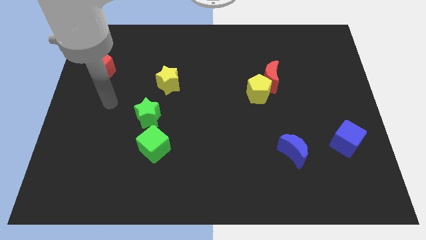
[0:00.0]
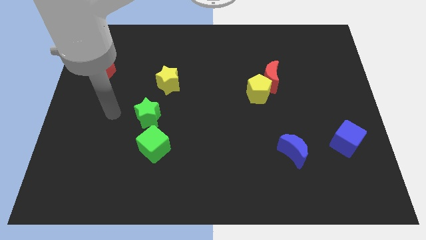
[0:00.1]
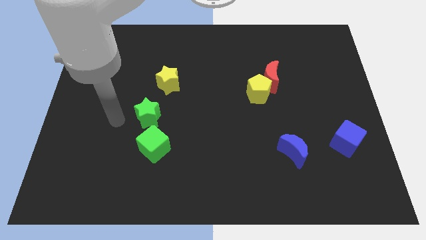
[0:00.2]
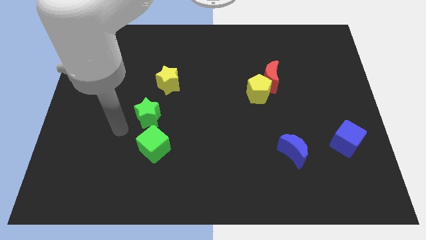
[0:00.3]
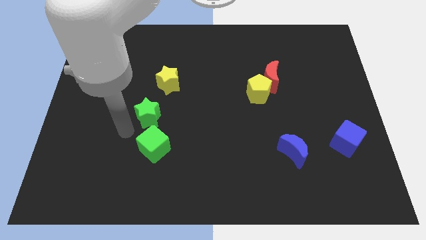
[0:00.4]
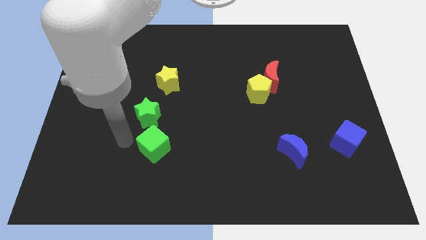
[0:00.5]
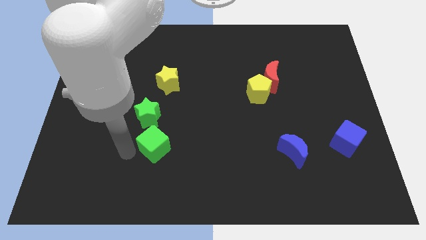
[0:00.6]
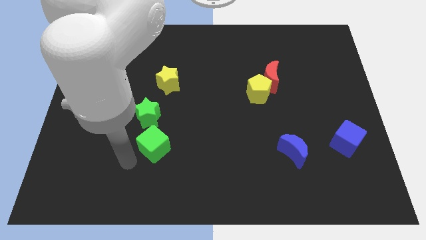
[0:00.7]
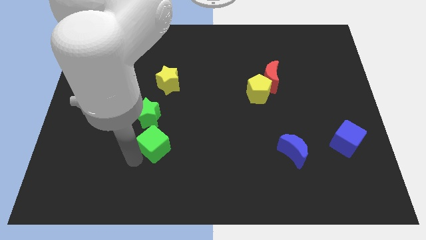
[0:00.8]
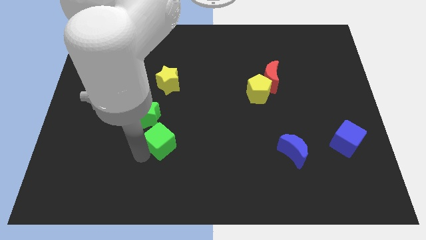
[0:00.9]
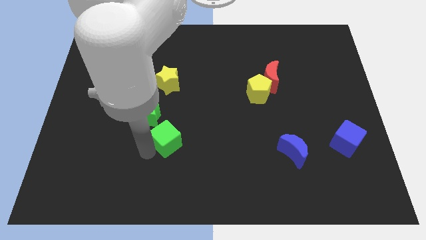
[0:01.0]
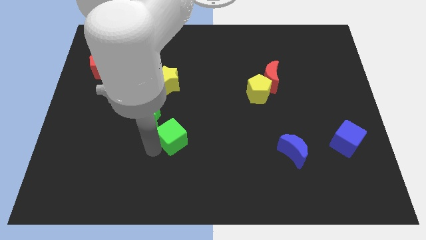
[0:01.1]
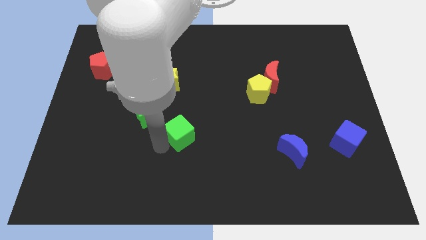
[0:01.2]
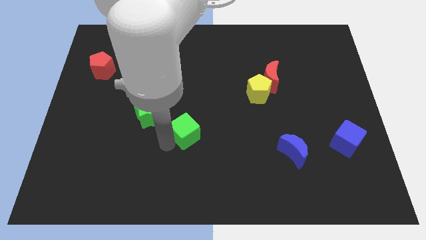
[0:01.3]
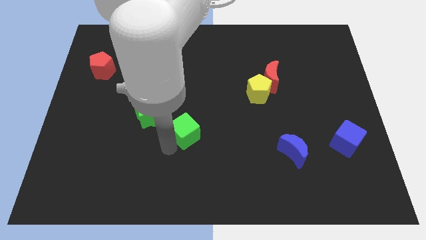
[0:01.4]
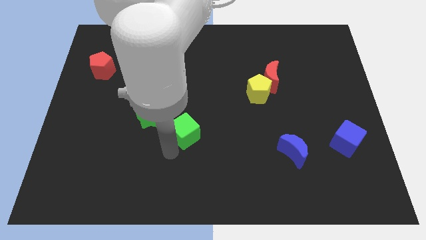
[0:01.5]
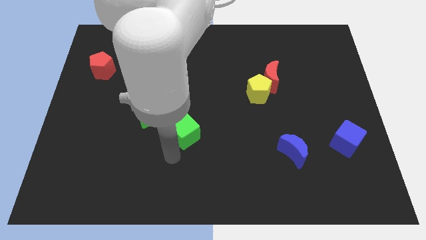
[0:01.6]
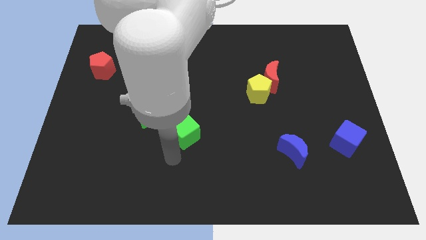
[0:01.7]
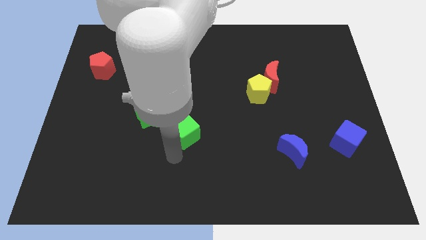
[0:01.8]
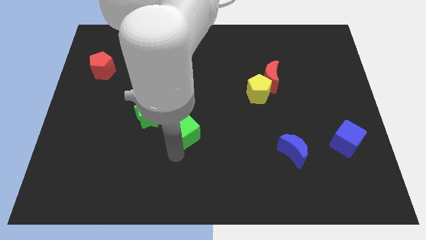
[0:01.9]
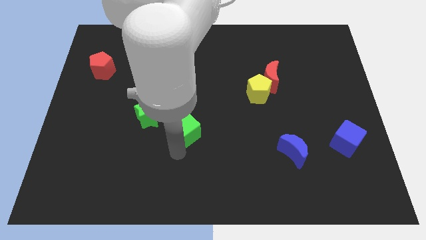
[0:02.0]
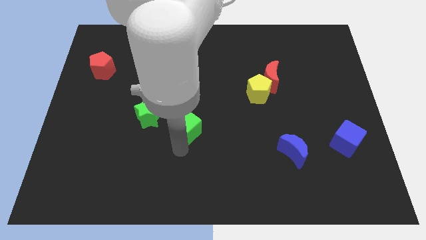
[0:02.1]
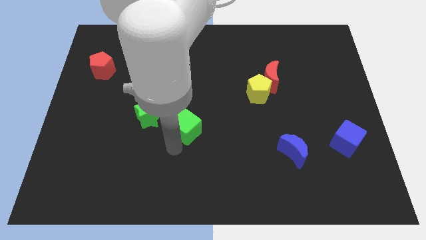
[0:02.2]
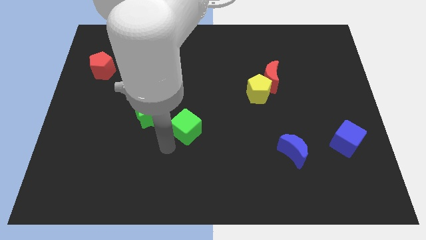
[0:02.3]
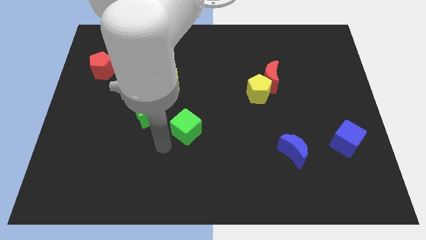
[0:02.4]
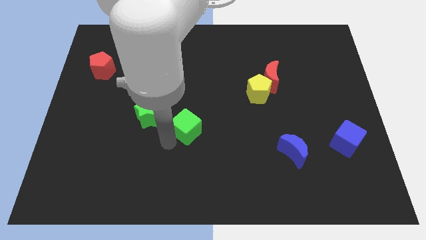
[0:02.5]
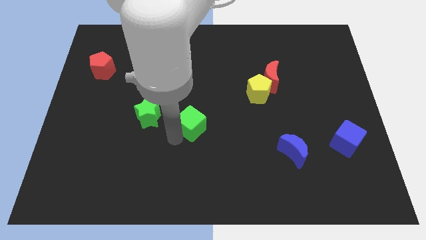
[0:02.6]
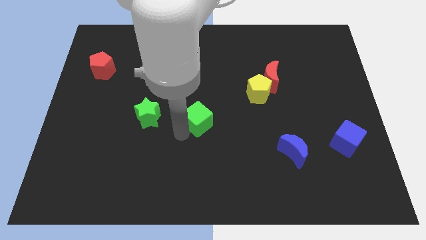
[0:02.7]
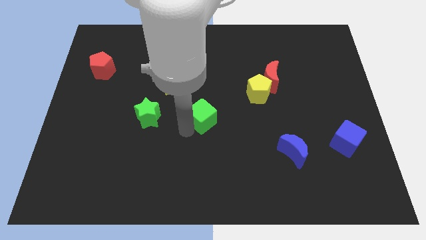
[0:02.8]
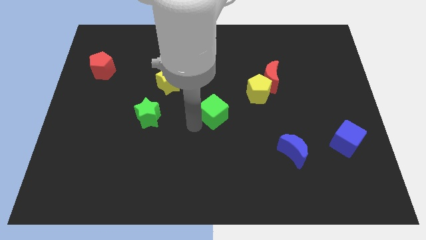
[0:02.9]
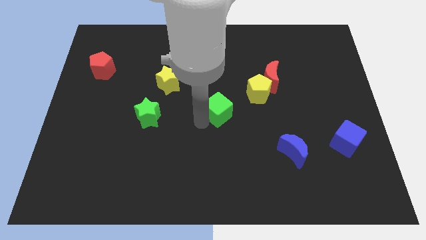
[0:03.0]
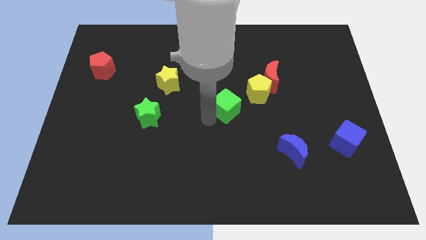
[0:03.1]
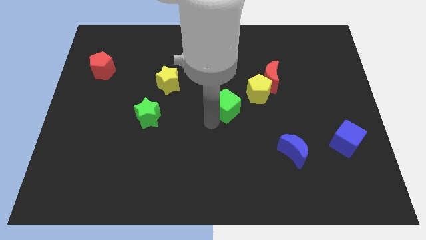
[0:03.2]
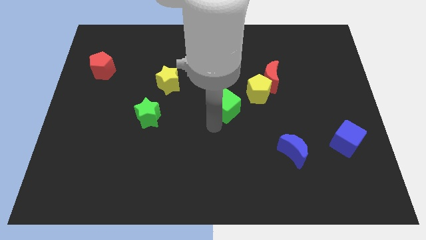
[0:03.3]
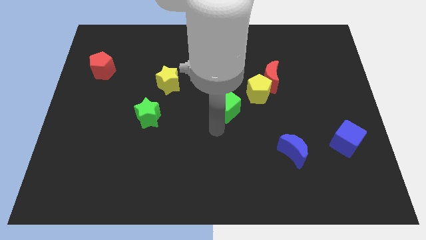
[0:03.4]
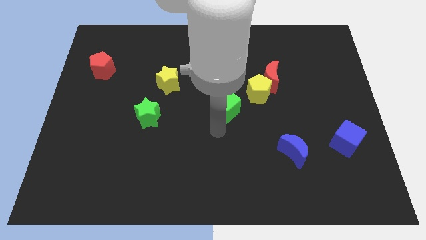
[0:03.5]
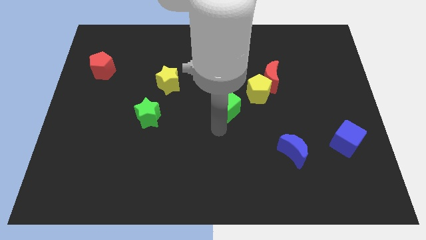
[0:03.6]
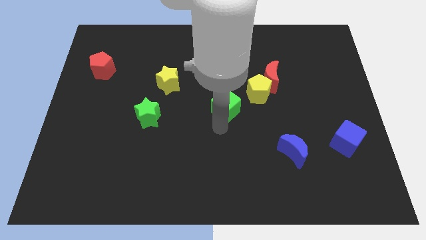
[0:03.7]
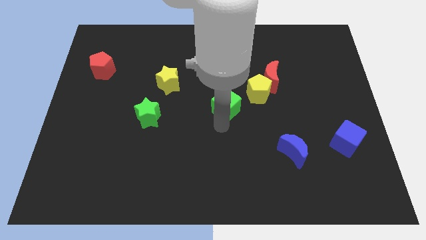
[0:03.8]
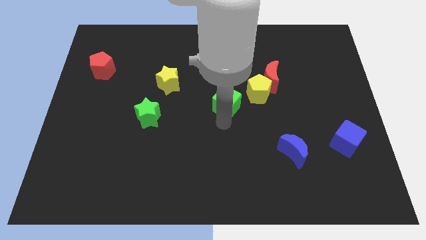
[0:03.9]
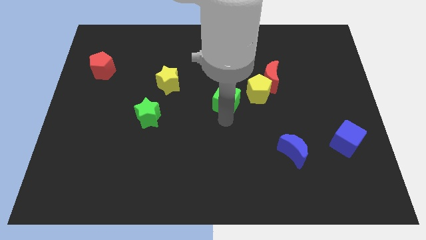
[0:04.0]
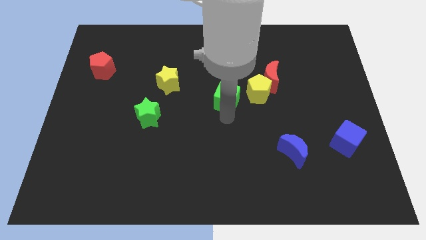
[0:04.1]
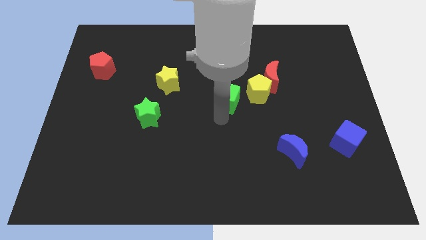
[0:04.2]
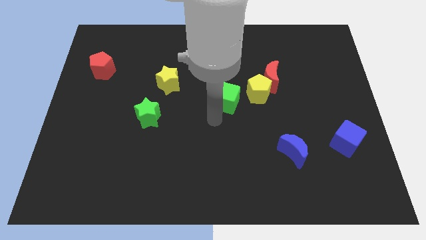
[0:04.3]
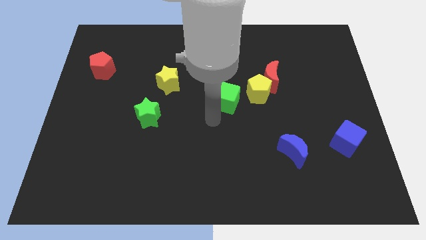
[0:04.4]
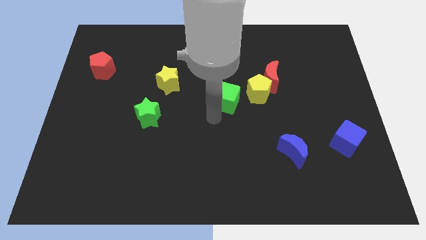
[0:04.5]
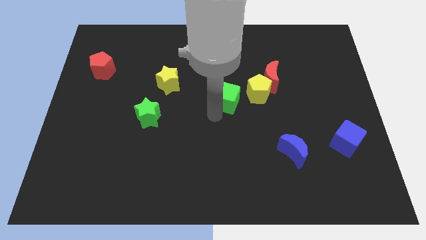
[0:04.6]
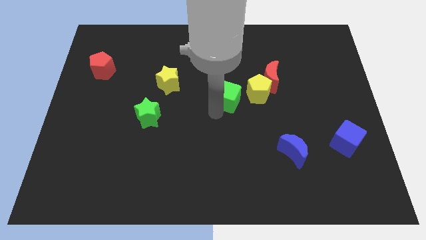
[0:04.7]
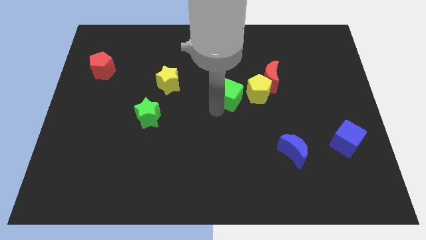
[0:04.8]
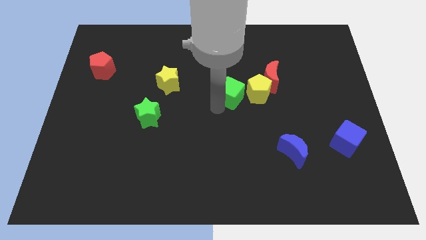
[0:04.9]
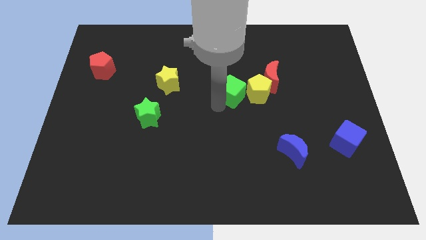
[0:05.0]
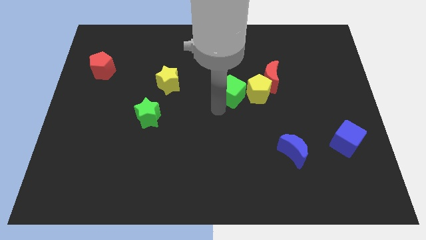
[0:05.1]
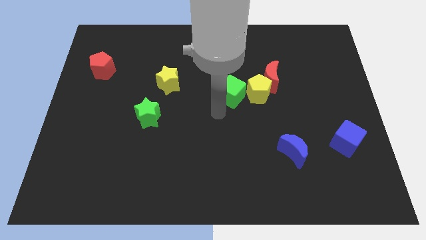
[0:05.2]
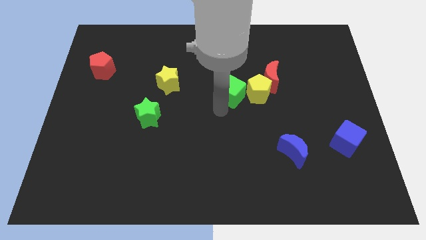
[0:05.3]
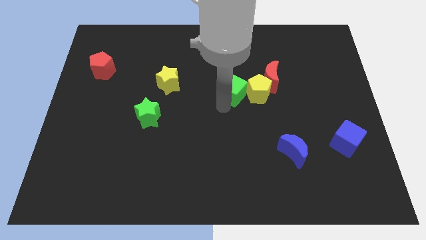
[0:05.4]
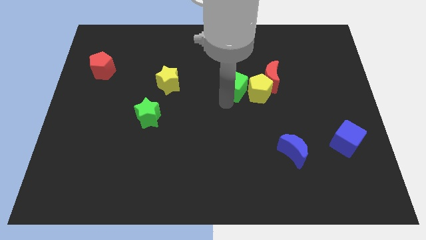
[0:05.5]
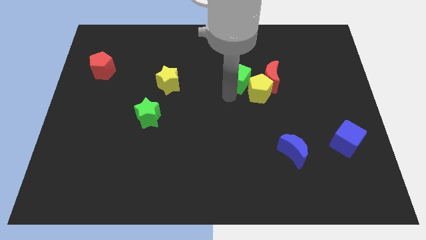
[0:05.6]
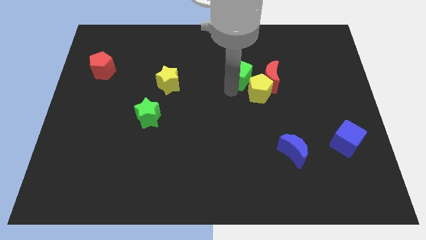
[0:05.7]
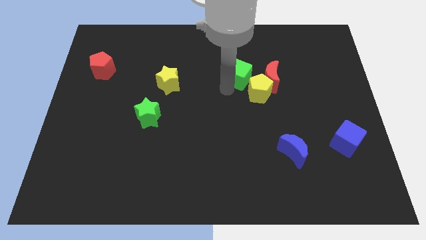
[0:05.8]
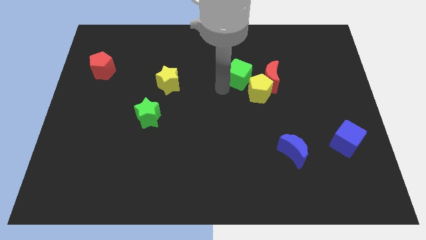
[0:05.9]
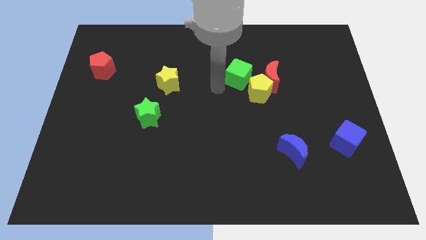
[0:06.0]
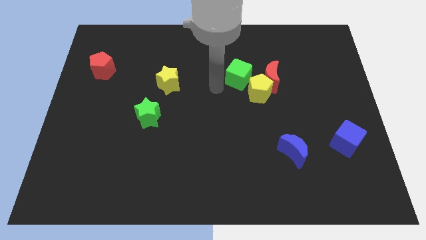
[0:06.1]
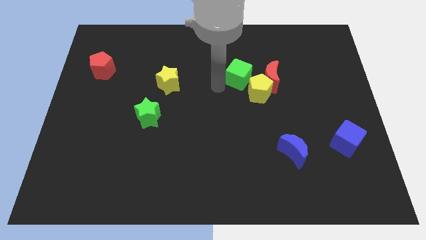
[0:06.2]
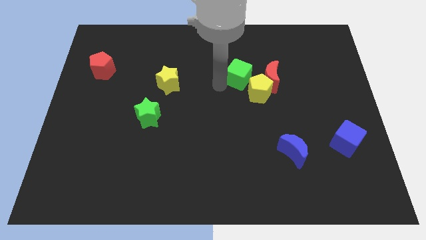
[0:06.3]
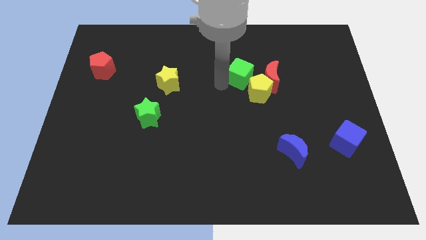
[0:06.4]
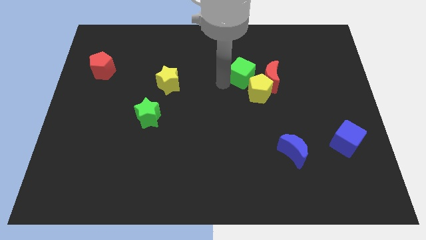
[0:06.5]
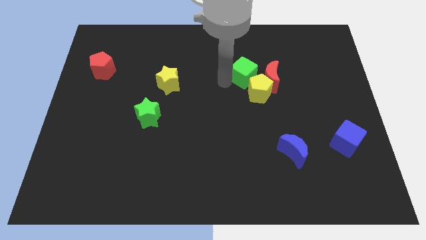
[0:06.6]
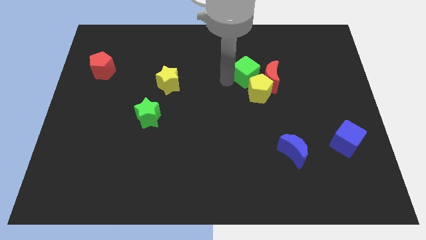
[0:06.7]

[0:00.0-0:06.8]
put the green cube close to the red moon

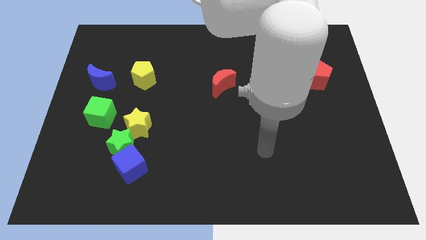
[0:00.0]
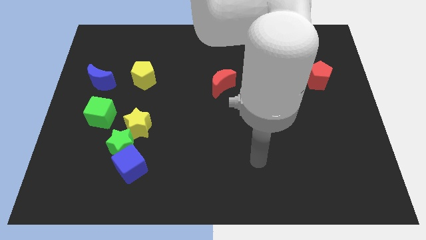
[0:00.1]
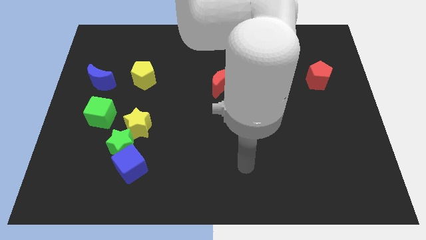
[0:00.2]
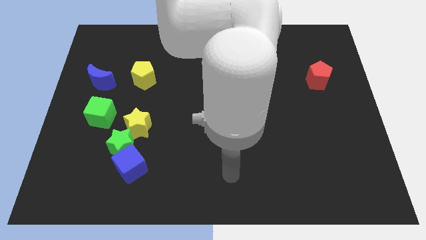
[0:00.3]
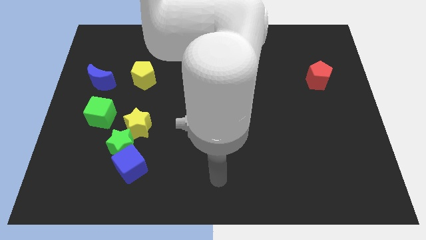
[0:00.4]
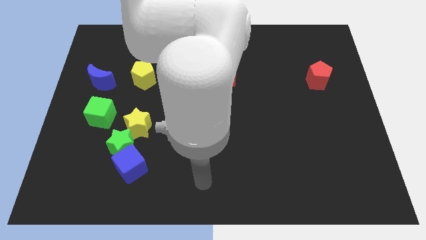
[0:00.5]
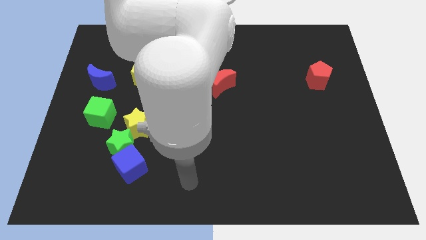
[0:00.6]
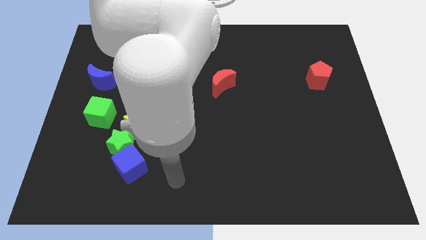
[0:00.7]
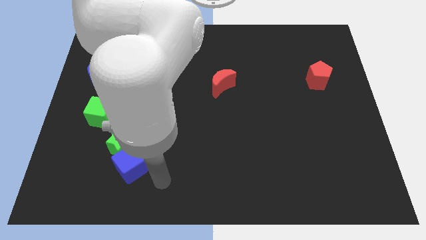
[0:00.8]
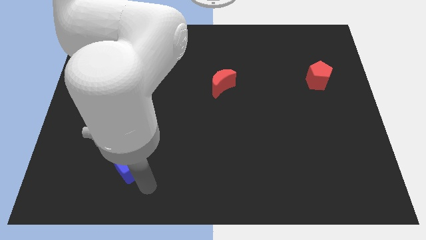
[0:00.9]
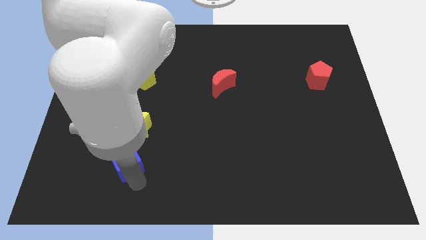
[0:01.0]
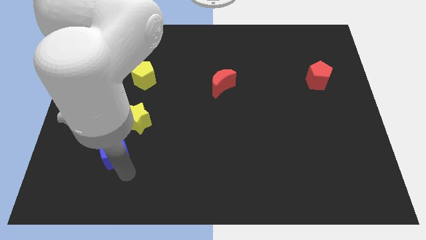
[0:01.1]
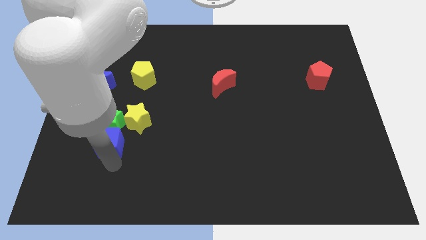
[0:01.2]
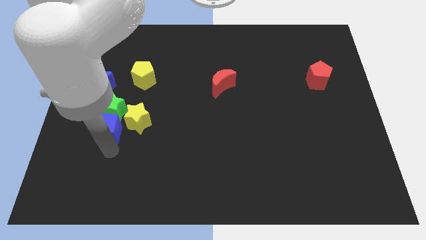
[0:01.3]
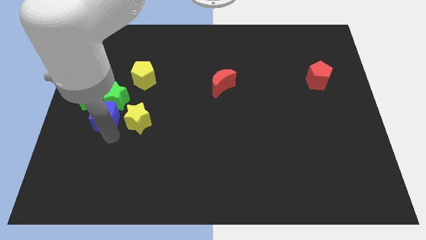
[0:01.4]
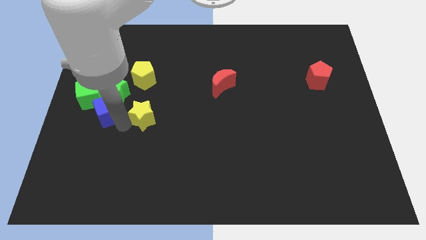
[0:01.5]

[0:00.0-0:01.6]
push the green star to the blue moon
